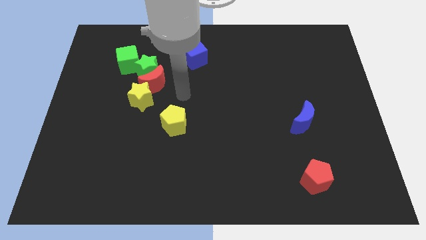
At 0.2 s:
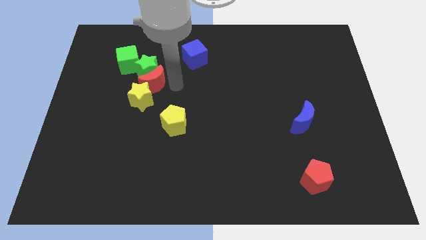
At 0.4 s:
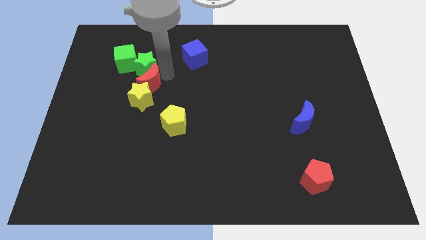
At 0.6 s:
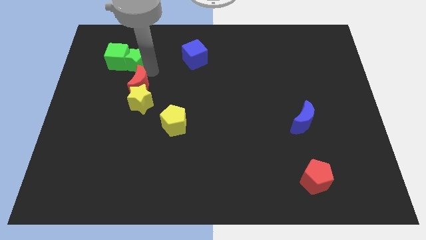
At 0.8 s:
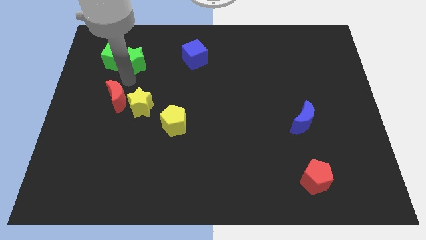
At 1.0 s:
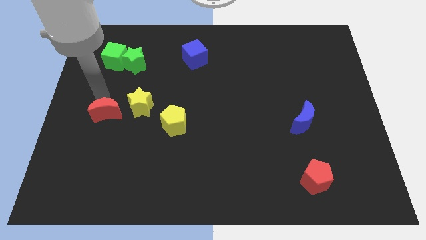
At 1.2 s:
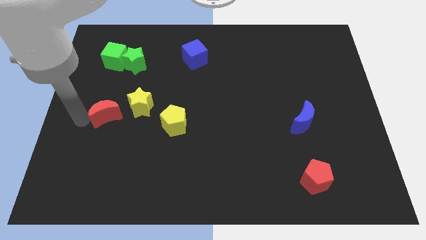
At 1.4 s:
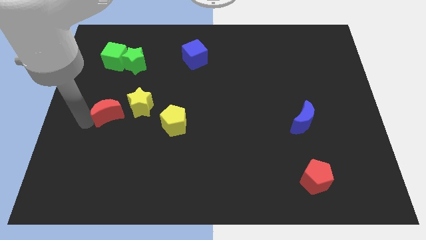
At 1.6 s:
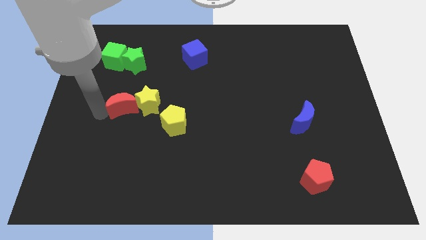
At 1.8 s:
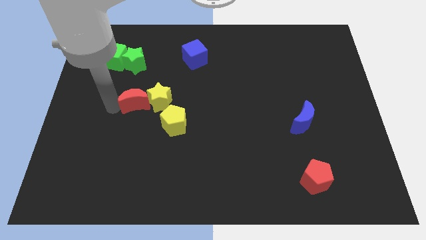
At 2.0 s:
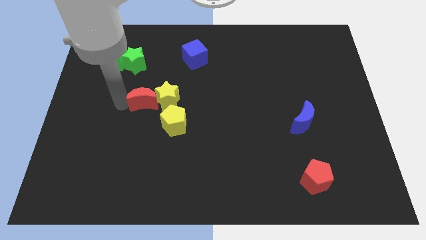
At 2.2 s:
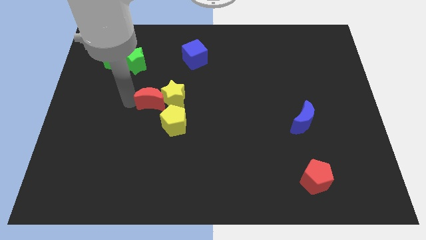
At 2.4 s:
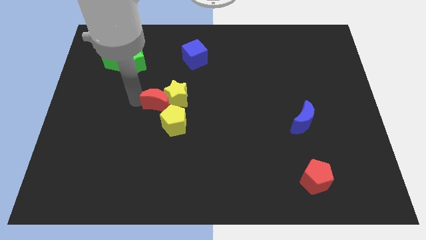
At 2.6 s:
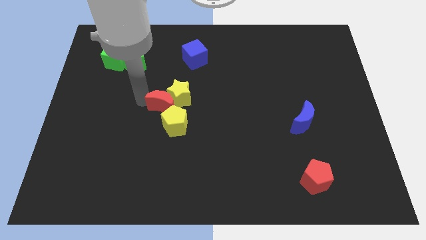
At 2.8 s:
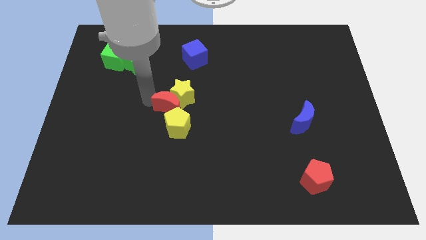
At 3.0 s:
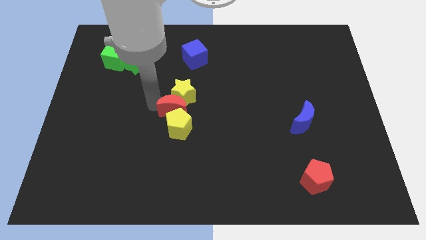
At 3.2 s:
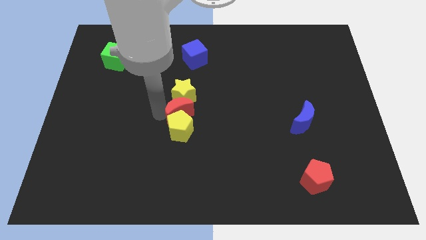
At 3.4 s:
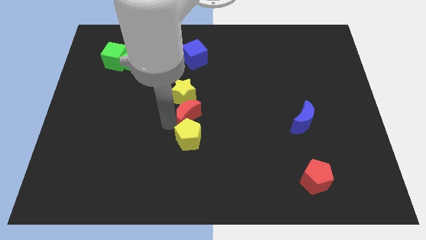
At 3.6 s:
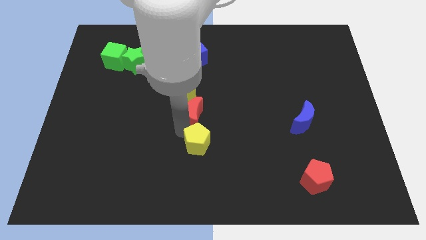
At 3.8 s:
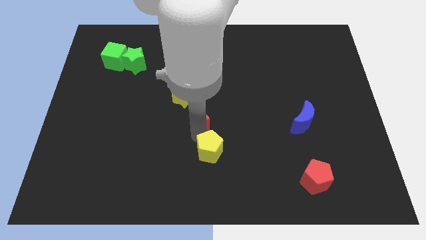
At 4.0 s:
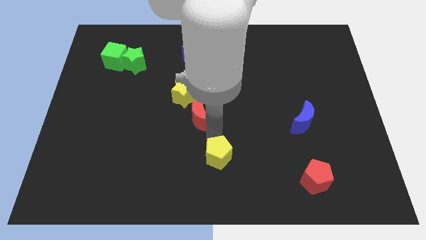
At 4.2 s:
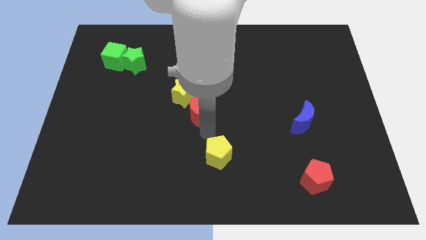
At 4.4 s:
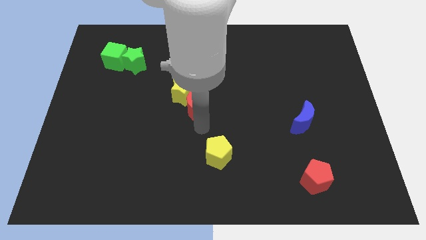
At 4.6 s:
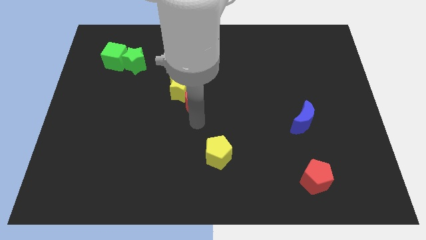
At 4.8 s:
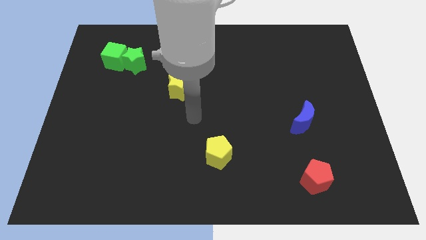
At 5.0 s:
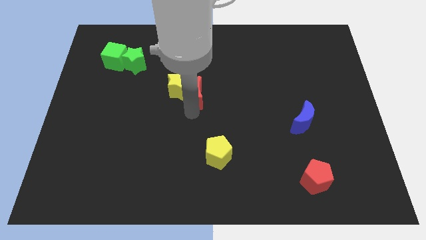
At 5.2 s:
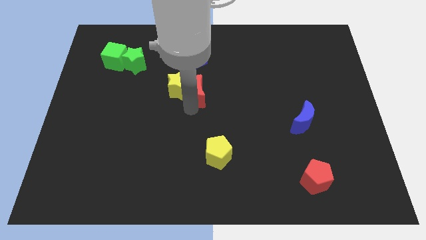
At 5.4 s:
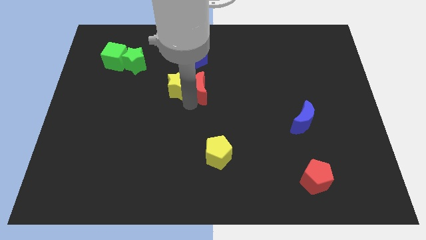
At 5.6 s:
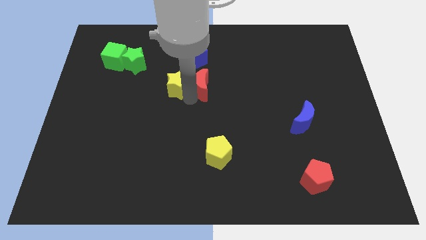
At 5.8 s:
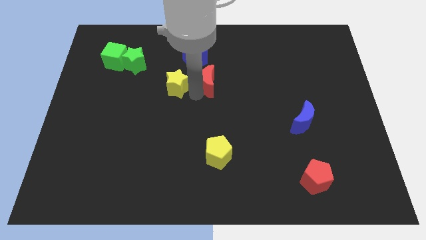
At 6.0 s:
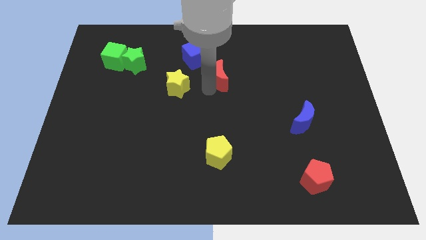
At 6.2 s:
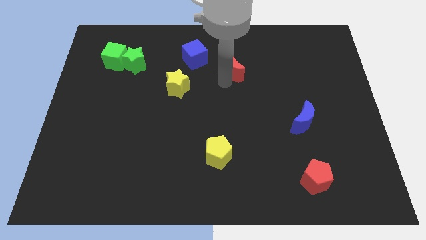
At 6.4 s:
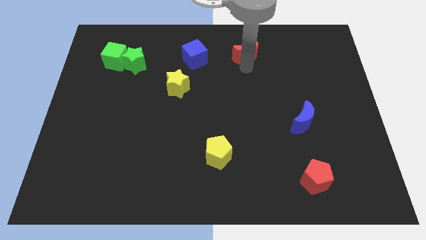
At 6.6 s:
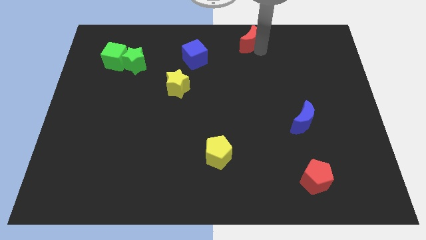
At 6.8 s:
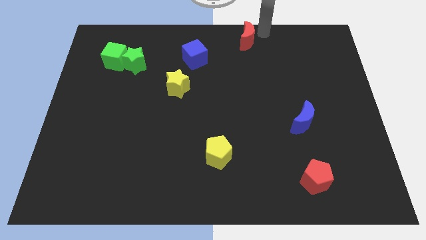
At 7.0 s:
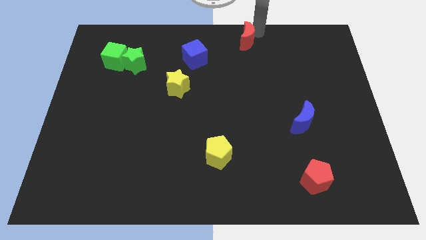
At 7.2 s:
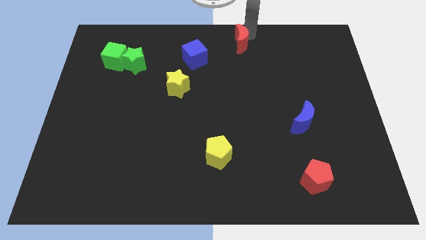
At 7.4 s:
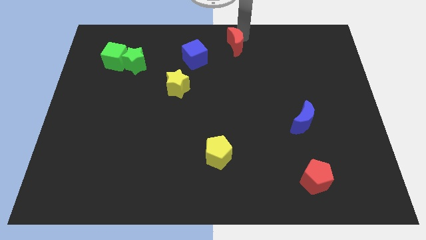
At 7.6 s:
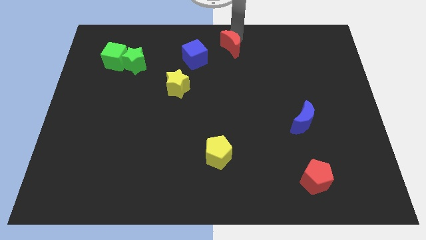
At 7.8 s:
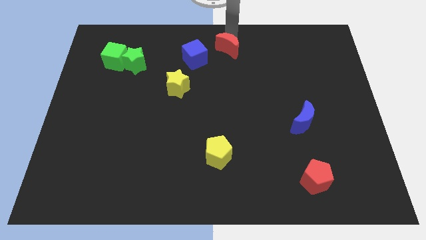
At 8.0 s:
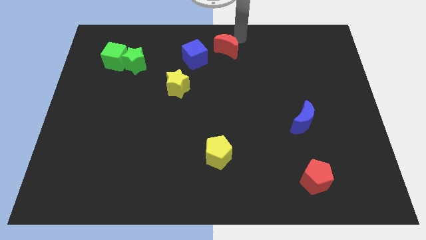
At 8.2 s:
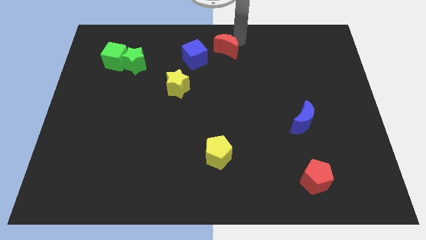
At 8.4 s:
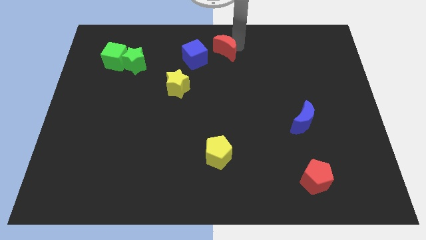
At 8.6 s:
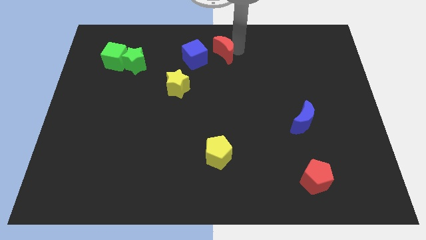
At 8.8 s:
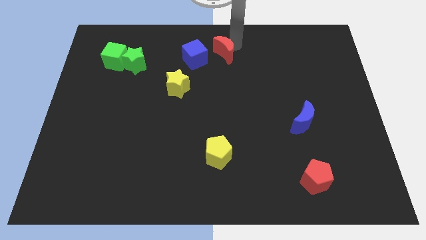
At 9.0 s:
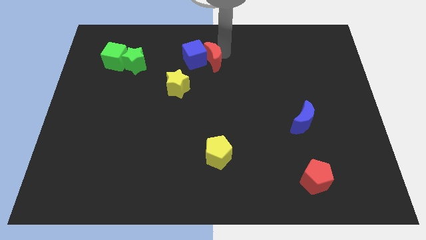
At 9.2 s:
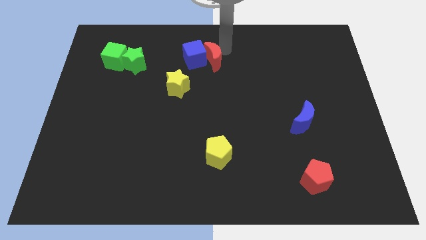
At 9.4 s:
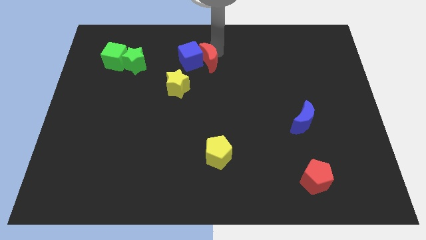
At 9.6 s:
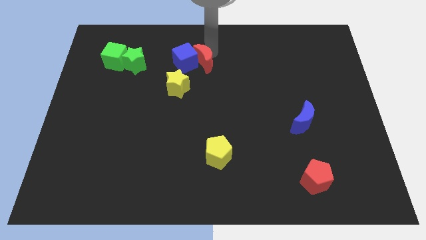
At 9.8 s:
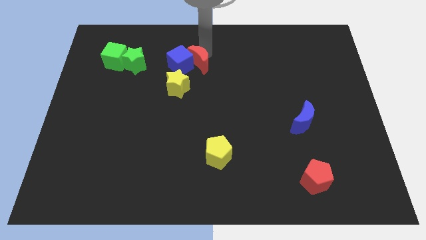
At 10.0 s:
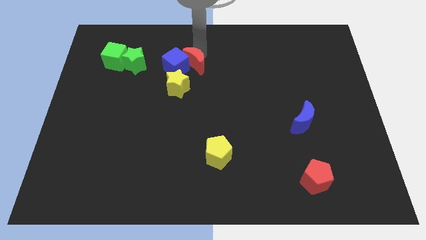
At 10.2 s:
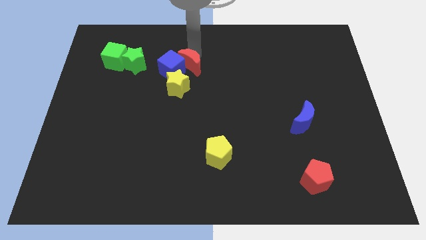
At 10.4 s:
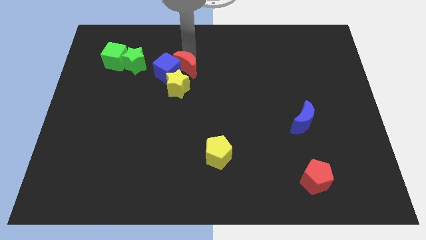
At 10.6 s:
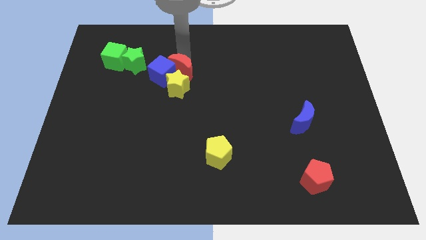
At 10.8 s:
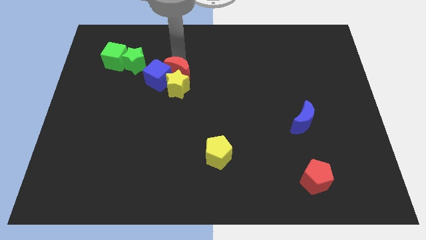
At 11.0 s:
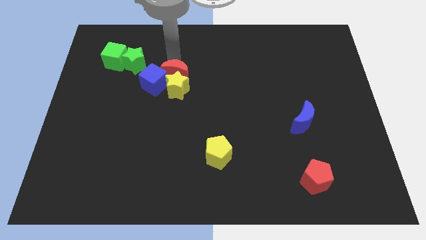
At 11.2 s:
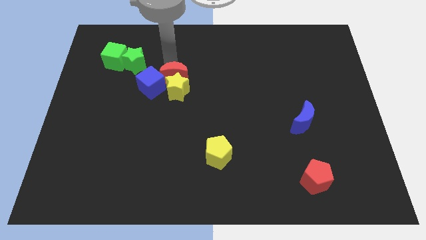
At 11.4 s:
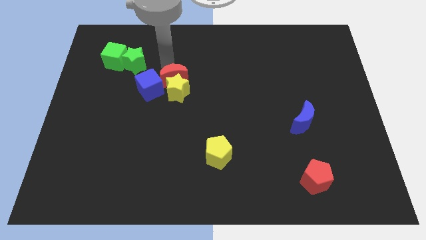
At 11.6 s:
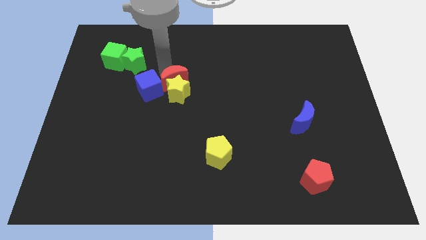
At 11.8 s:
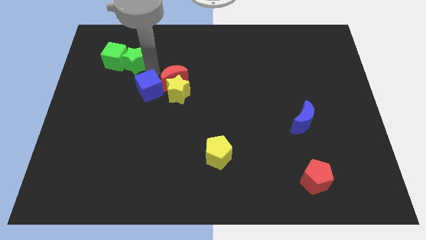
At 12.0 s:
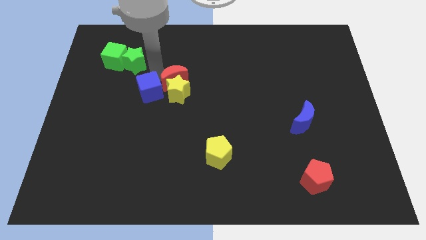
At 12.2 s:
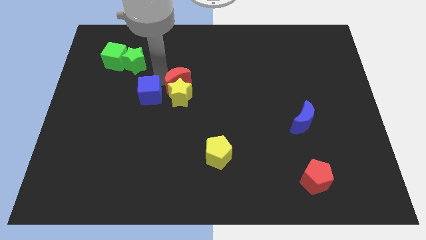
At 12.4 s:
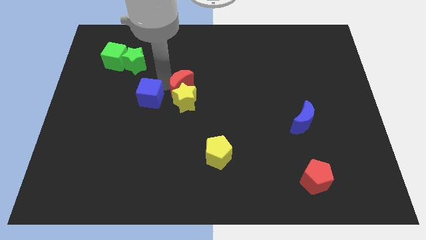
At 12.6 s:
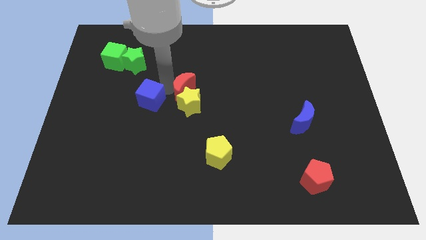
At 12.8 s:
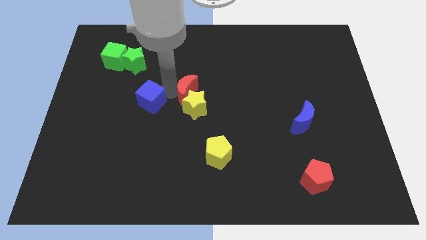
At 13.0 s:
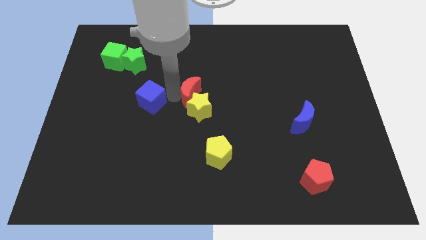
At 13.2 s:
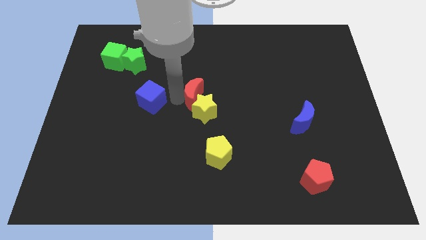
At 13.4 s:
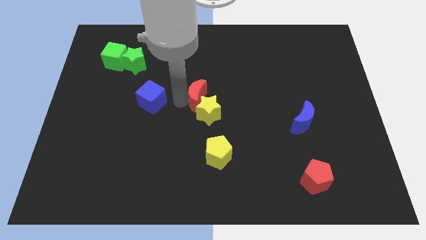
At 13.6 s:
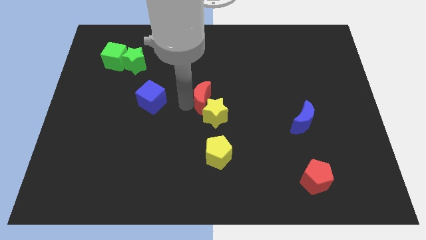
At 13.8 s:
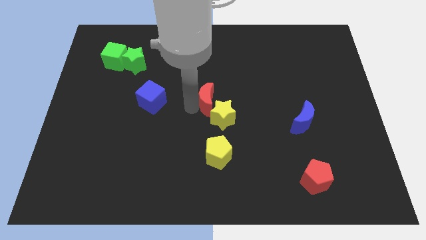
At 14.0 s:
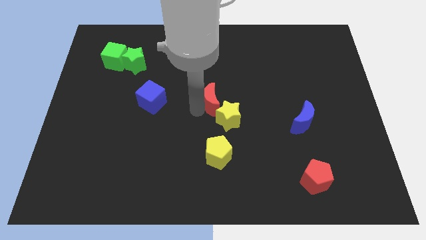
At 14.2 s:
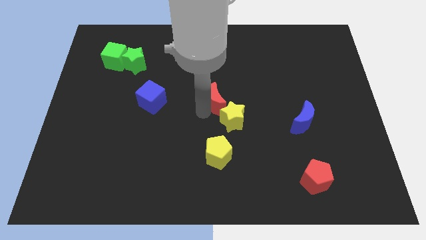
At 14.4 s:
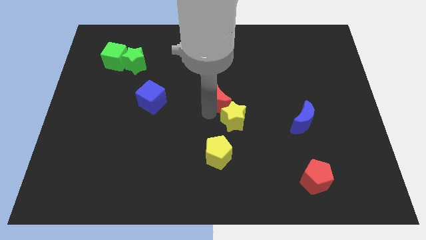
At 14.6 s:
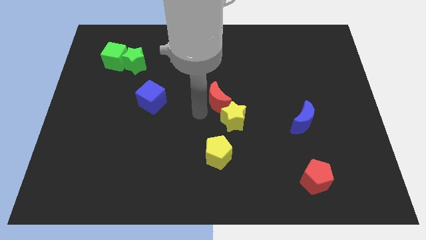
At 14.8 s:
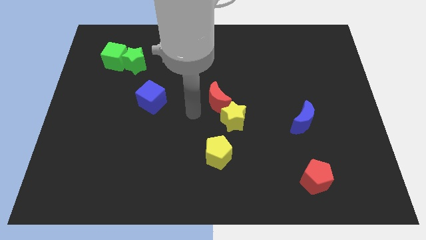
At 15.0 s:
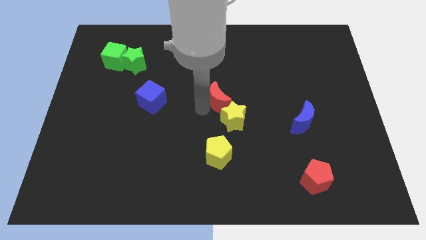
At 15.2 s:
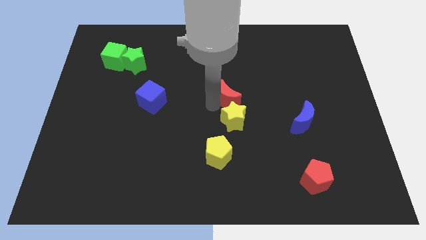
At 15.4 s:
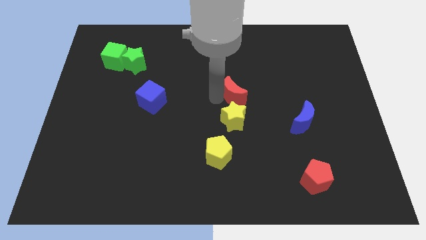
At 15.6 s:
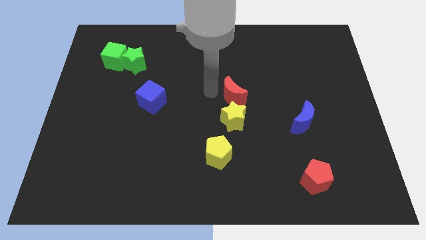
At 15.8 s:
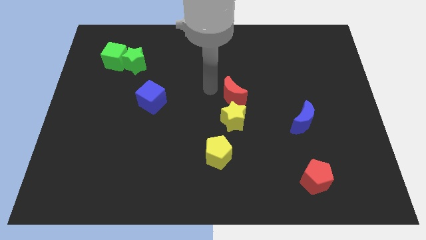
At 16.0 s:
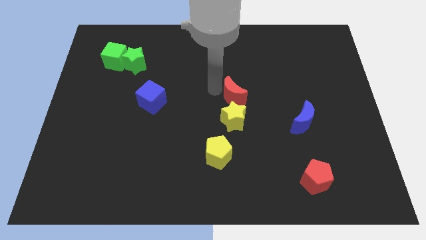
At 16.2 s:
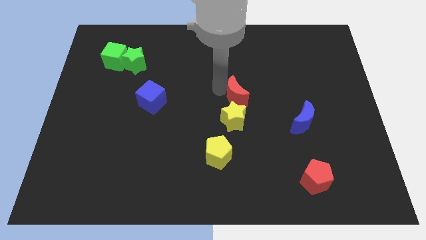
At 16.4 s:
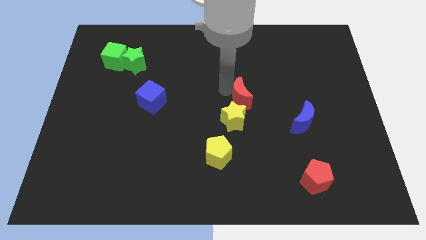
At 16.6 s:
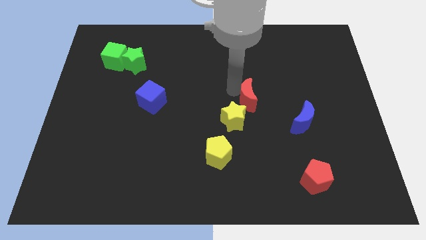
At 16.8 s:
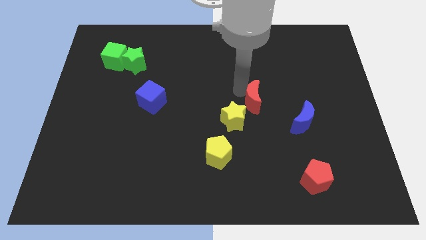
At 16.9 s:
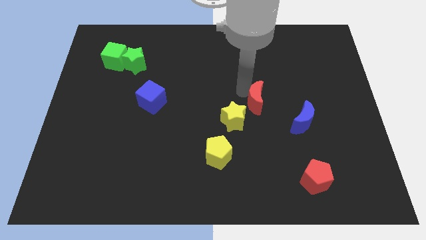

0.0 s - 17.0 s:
put the red moon diagonally up and to the left of the blue moon
